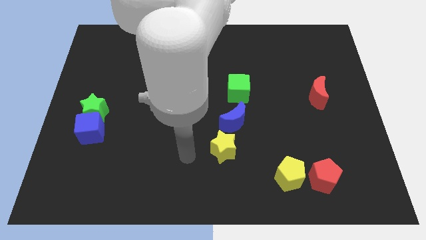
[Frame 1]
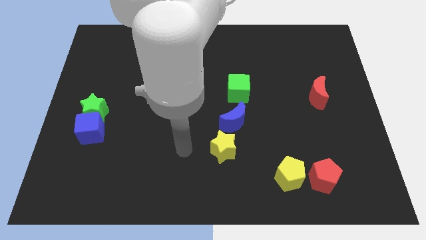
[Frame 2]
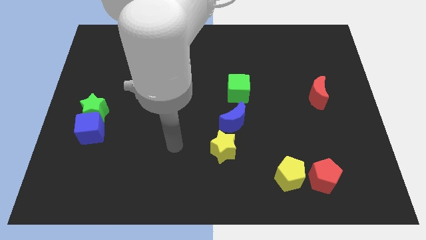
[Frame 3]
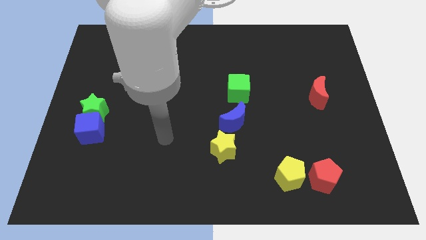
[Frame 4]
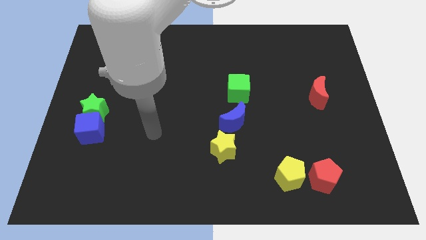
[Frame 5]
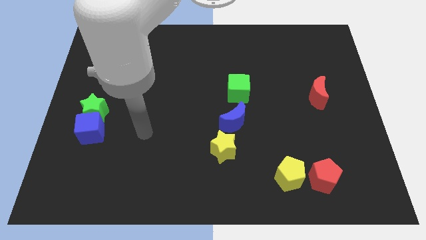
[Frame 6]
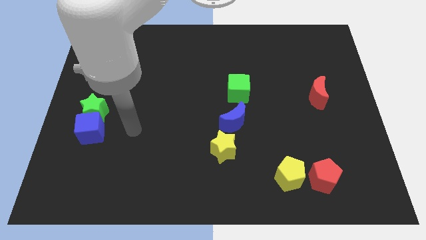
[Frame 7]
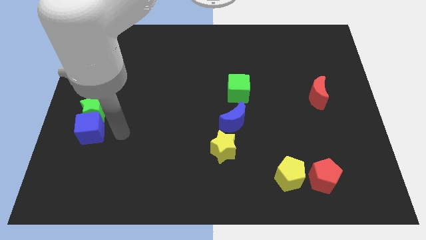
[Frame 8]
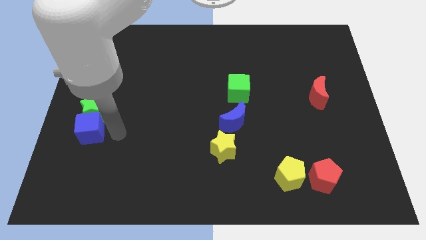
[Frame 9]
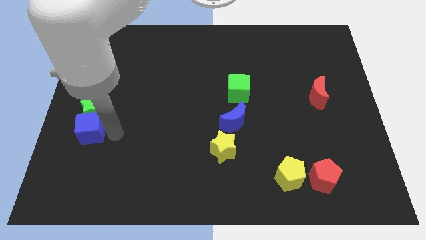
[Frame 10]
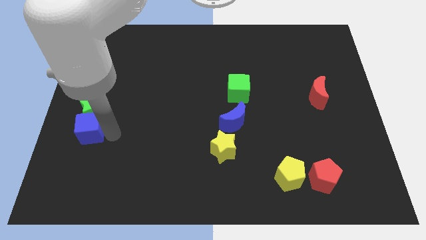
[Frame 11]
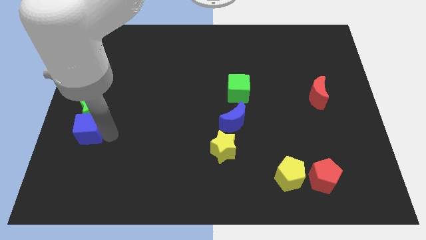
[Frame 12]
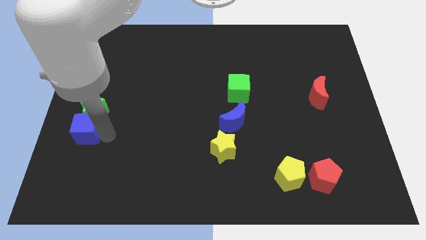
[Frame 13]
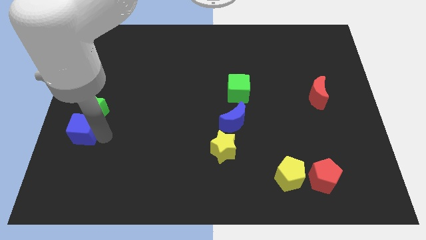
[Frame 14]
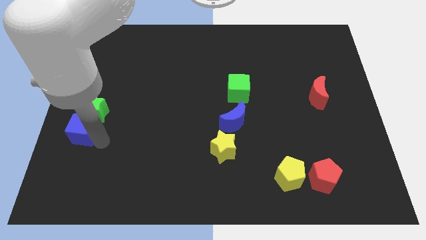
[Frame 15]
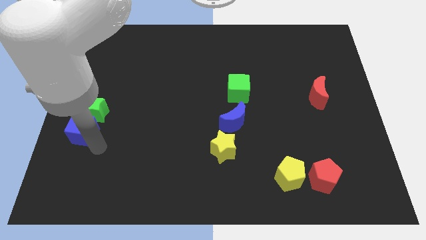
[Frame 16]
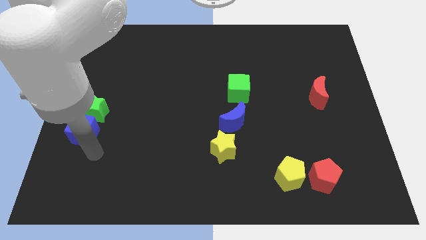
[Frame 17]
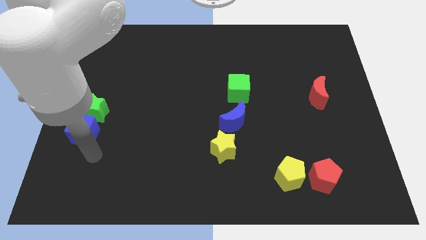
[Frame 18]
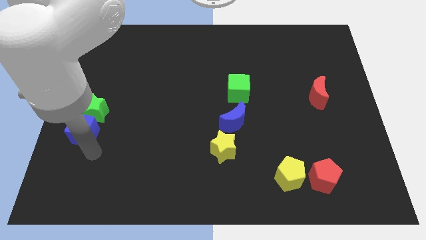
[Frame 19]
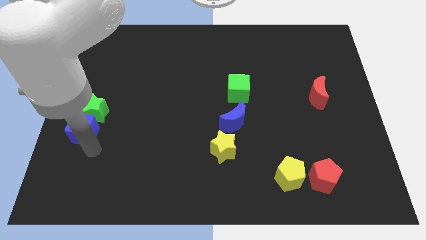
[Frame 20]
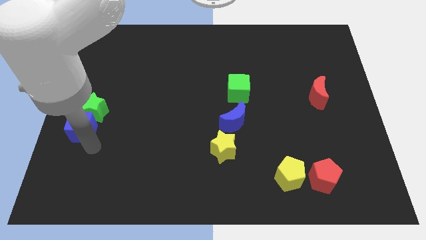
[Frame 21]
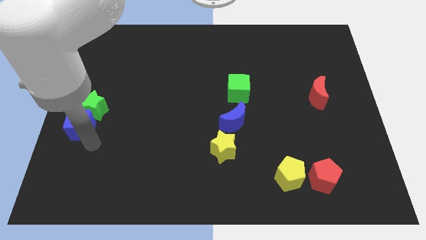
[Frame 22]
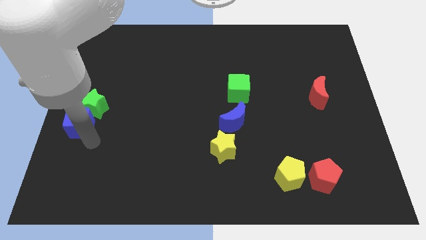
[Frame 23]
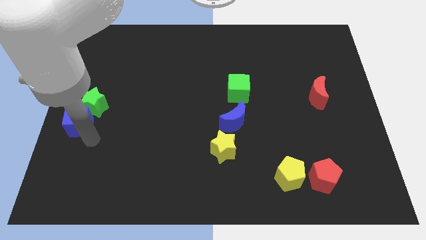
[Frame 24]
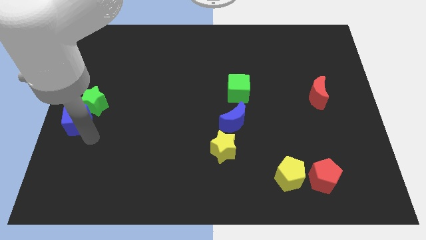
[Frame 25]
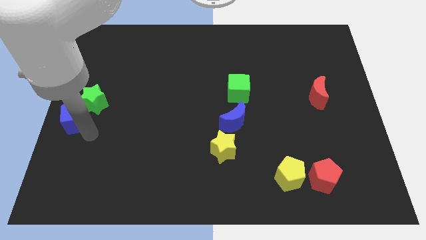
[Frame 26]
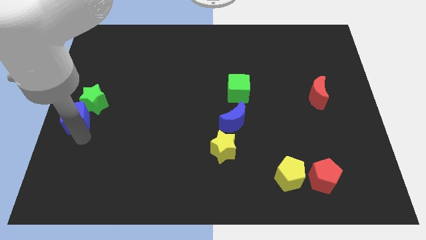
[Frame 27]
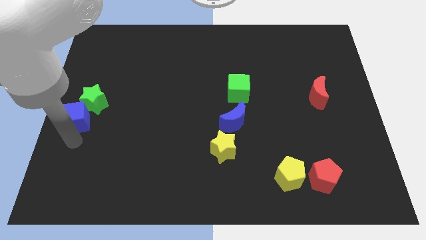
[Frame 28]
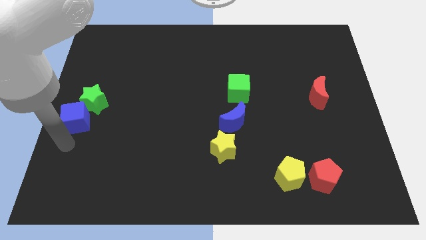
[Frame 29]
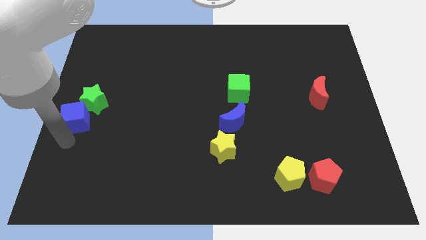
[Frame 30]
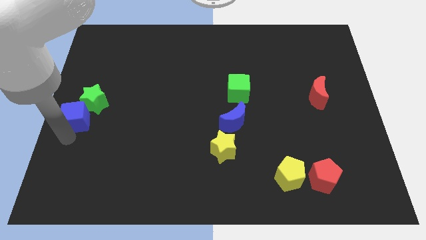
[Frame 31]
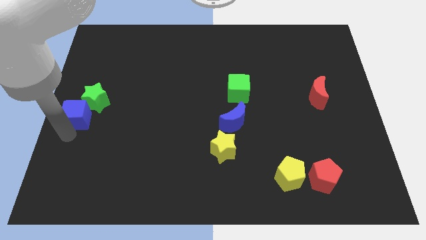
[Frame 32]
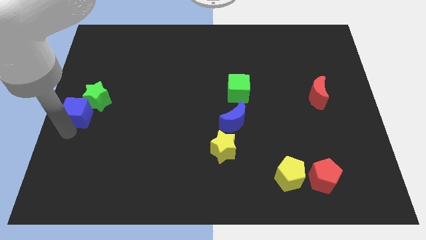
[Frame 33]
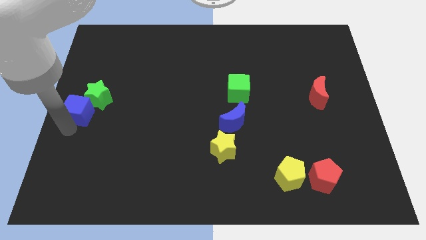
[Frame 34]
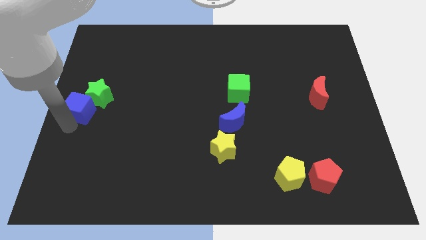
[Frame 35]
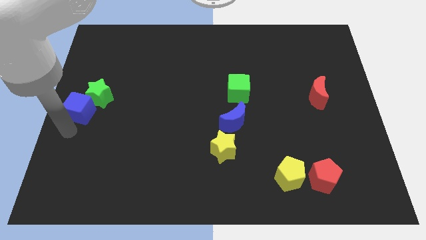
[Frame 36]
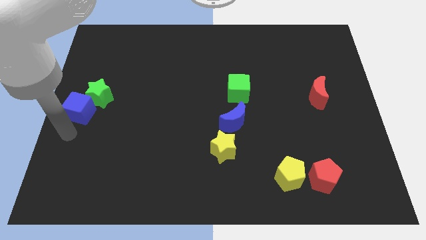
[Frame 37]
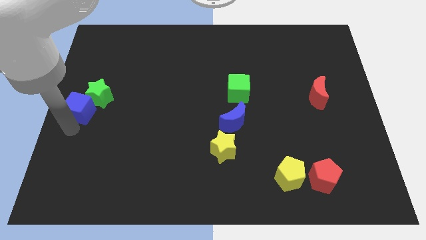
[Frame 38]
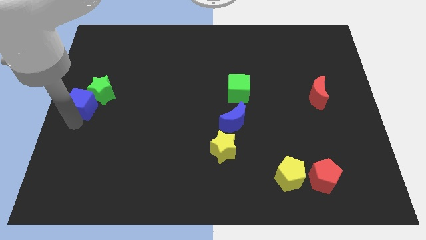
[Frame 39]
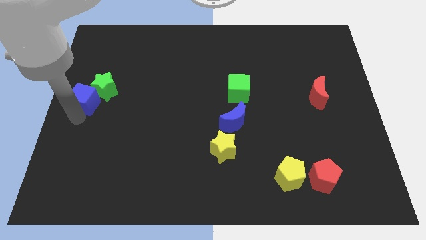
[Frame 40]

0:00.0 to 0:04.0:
push the blue cube up a bit

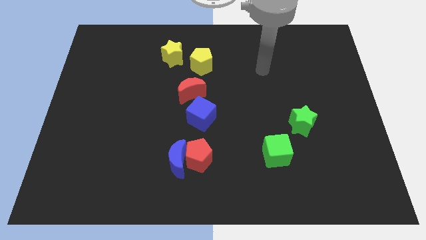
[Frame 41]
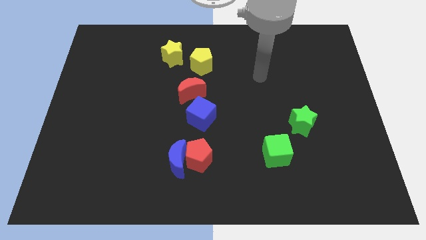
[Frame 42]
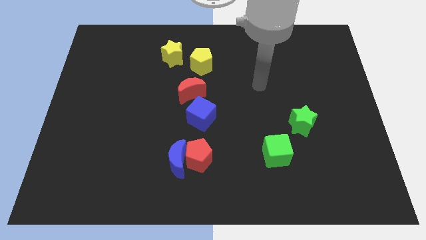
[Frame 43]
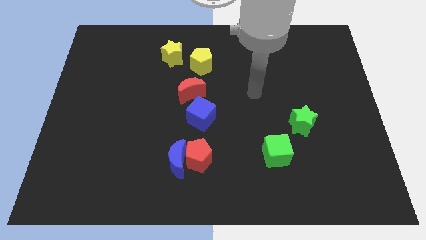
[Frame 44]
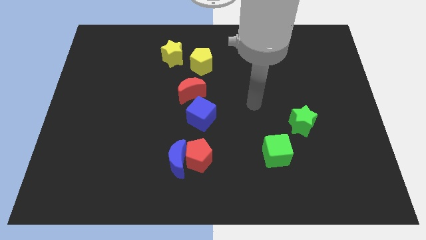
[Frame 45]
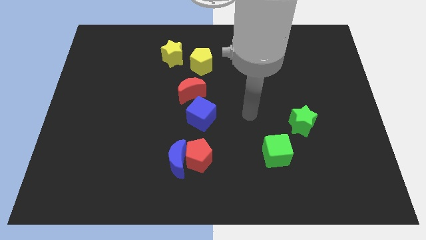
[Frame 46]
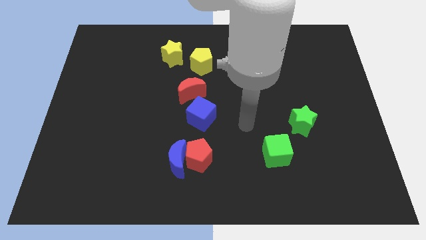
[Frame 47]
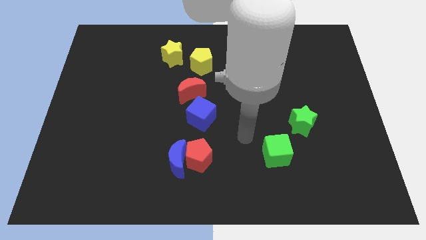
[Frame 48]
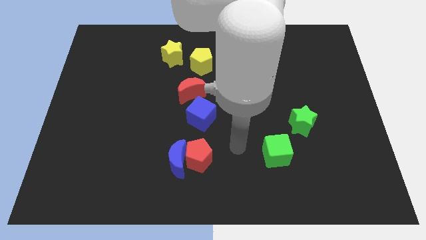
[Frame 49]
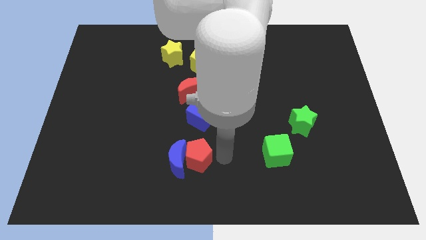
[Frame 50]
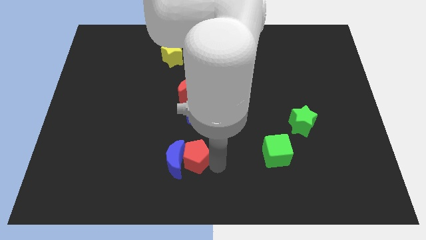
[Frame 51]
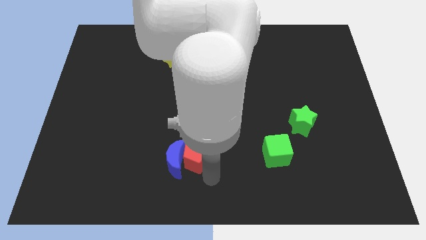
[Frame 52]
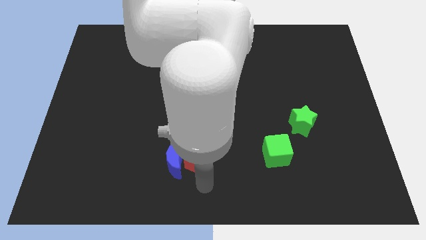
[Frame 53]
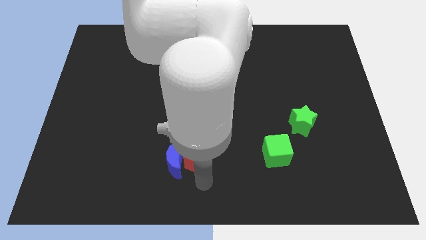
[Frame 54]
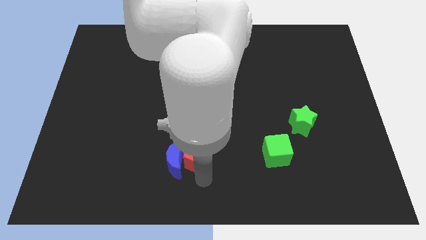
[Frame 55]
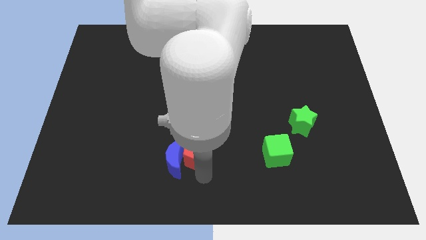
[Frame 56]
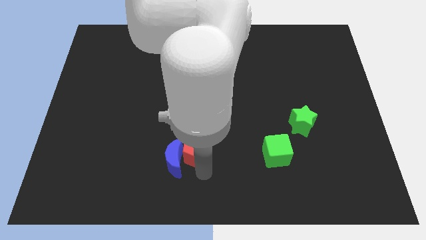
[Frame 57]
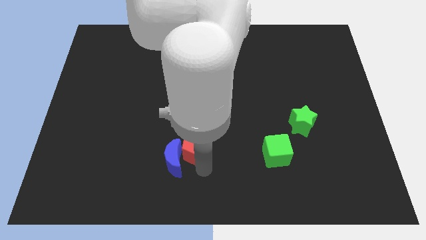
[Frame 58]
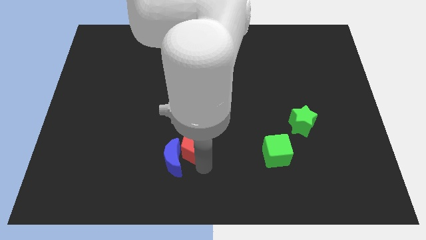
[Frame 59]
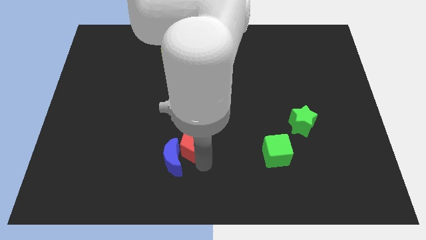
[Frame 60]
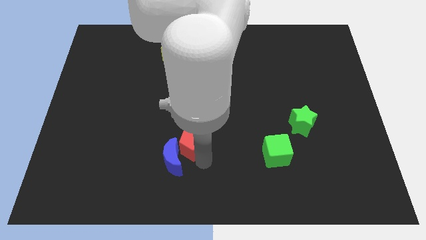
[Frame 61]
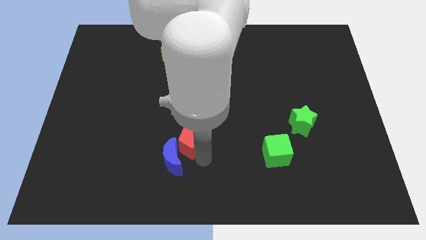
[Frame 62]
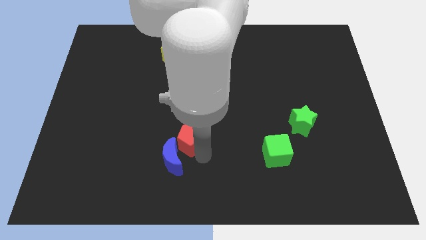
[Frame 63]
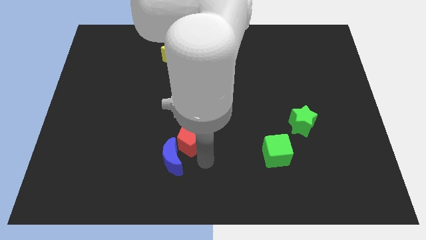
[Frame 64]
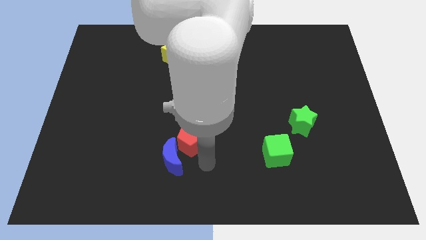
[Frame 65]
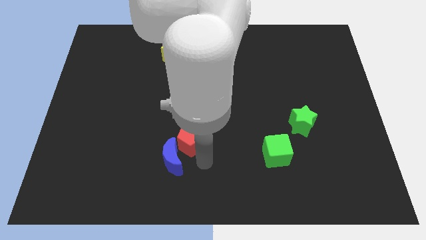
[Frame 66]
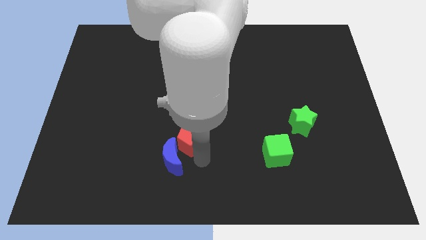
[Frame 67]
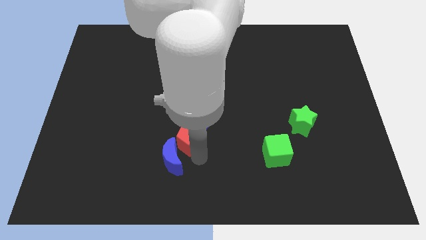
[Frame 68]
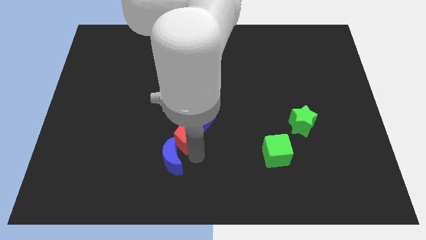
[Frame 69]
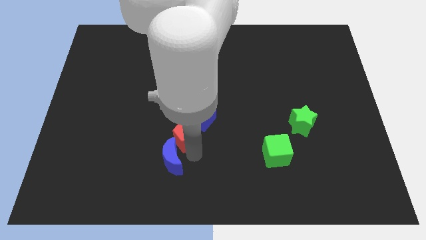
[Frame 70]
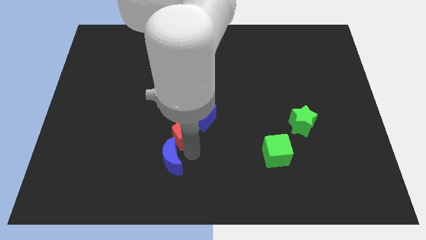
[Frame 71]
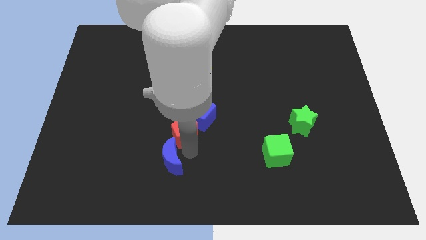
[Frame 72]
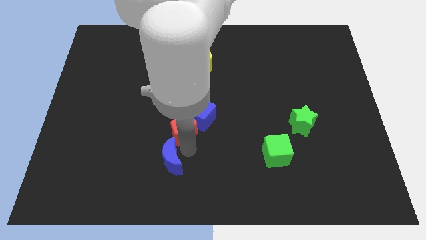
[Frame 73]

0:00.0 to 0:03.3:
slightly slide the red pentagon up and then to the left

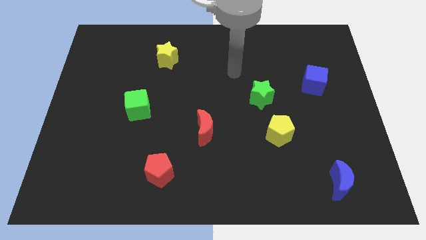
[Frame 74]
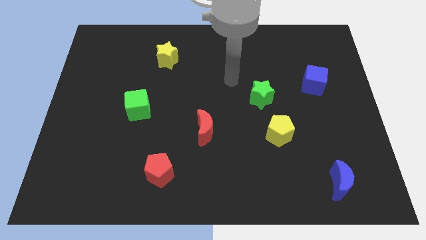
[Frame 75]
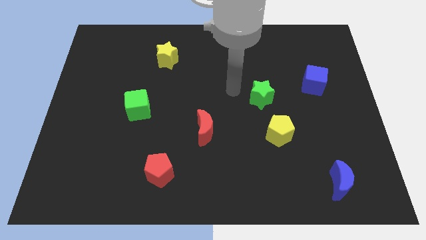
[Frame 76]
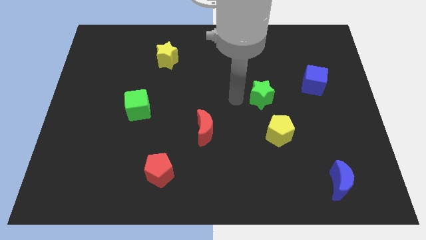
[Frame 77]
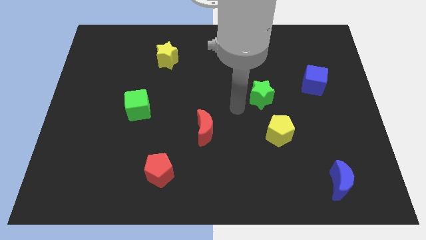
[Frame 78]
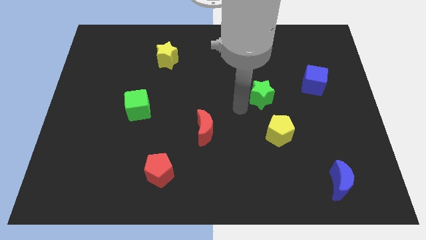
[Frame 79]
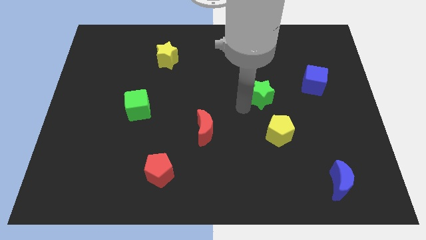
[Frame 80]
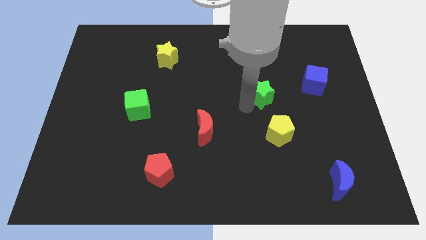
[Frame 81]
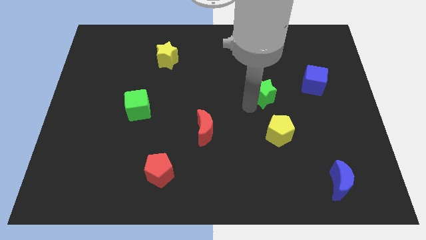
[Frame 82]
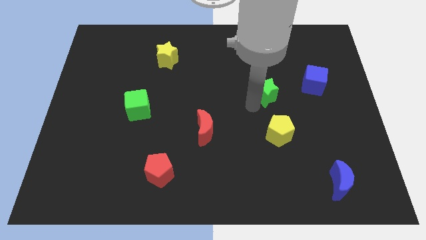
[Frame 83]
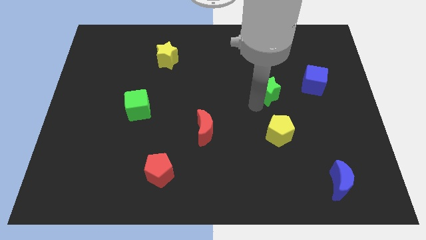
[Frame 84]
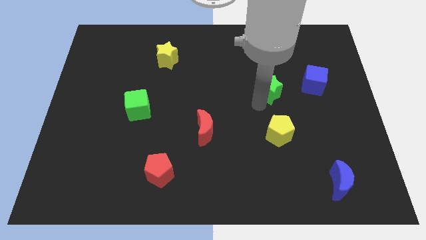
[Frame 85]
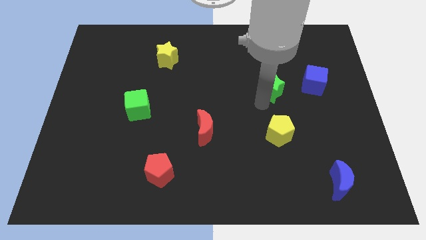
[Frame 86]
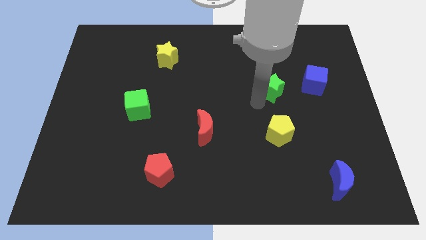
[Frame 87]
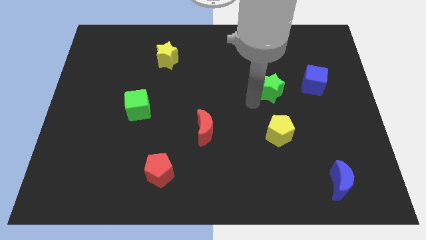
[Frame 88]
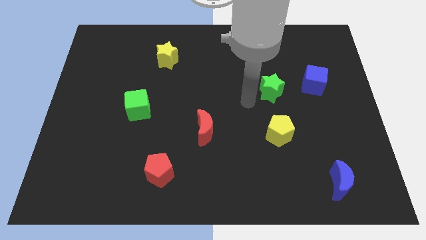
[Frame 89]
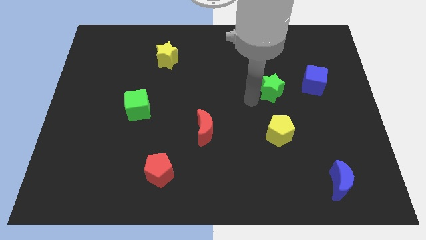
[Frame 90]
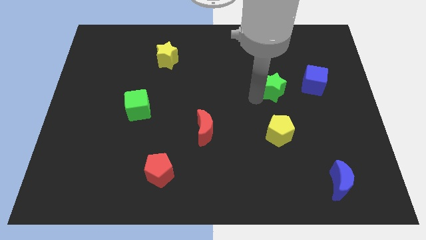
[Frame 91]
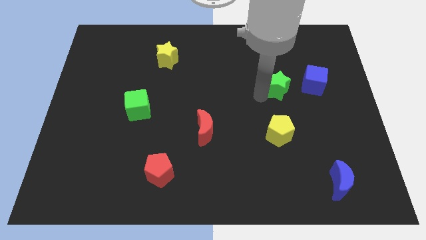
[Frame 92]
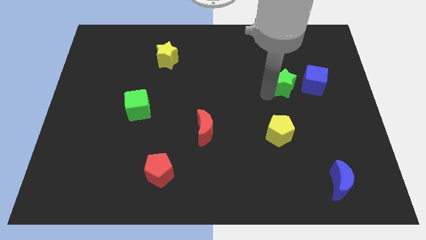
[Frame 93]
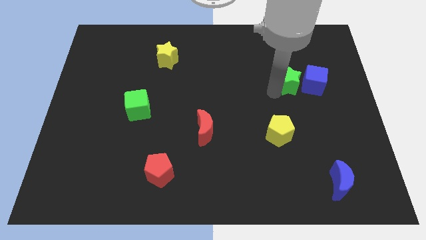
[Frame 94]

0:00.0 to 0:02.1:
move the green star upwards and then right a bit
